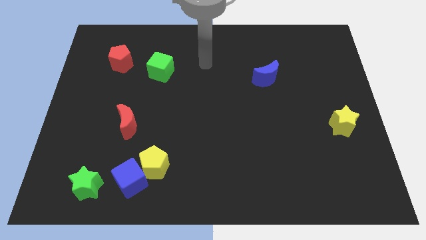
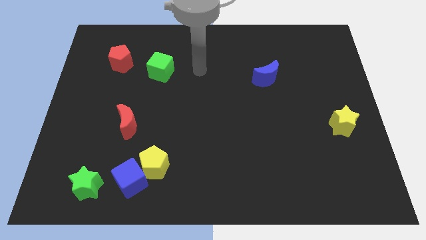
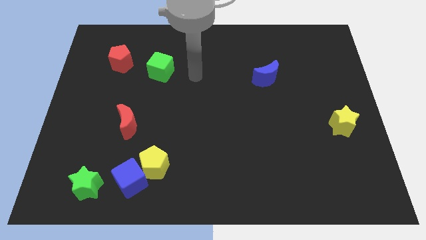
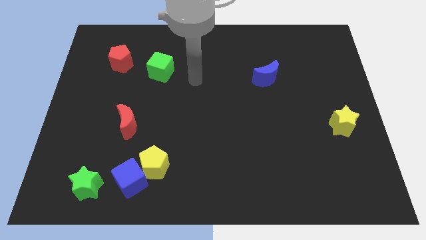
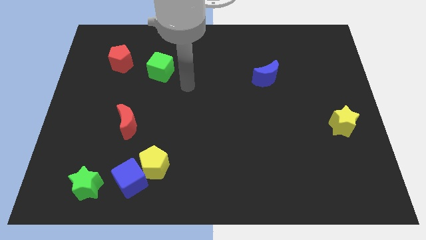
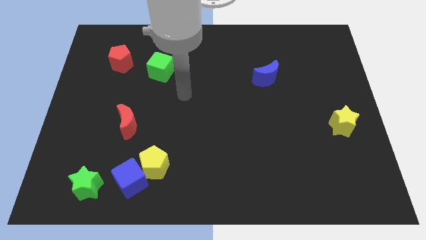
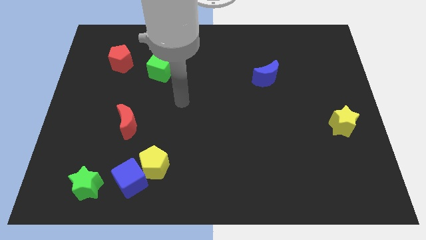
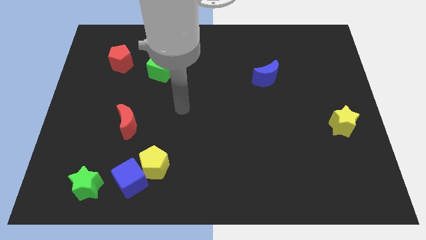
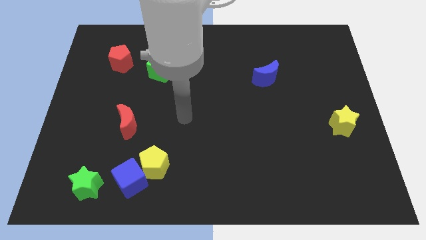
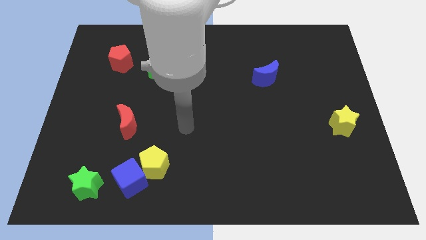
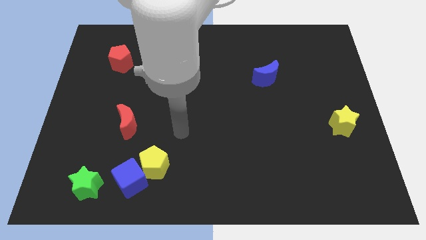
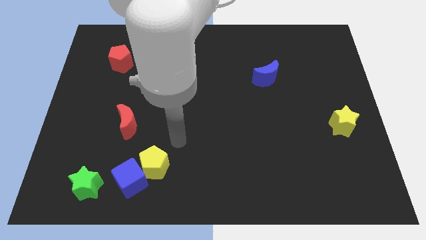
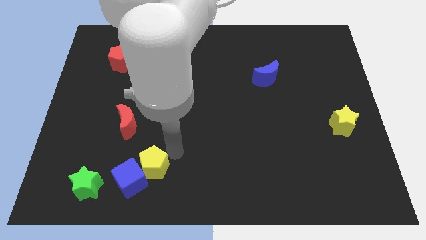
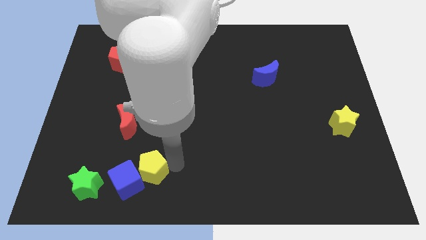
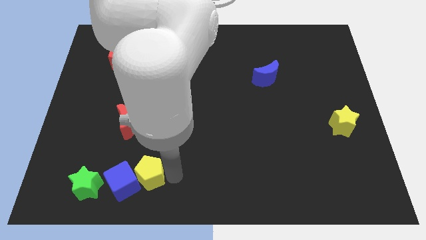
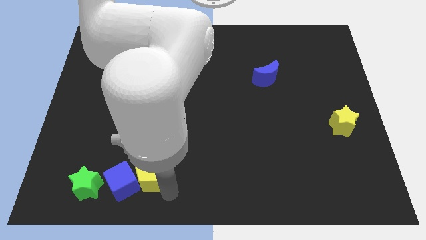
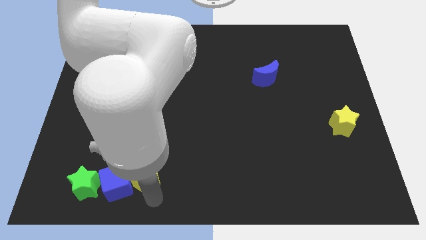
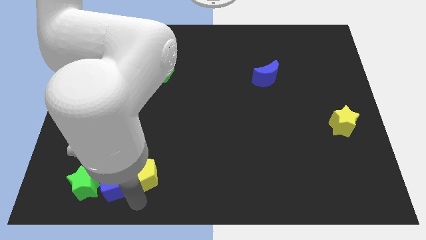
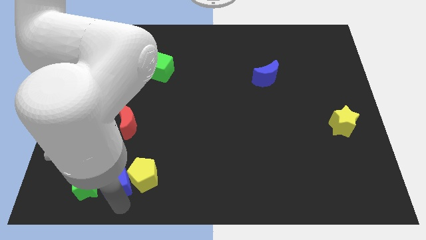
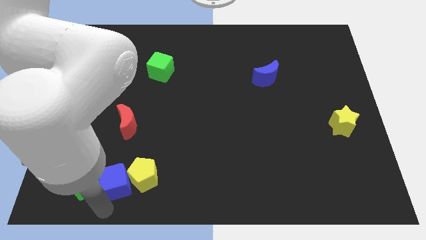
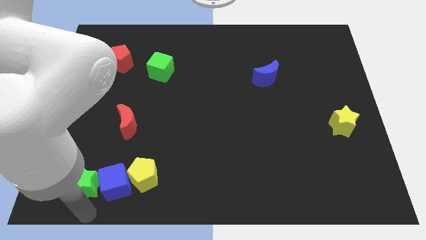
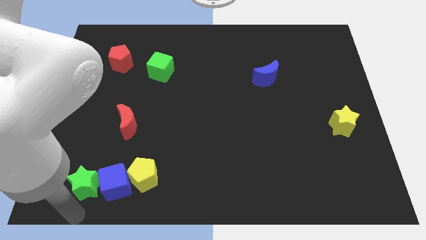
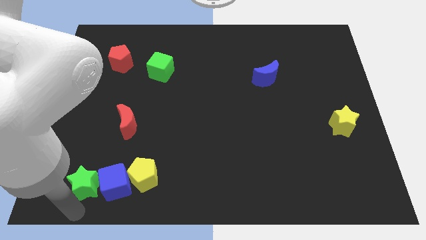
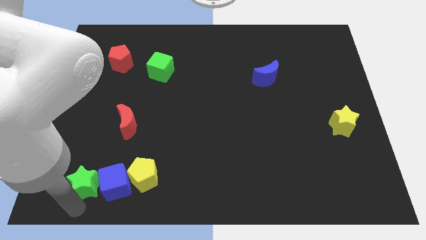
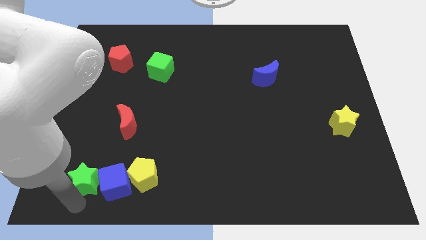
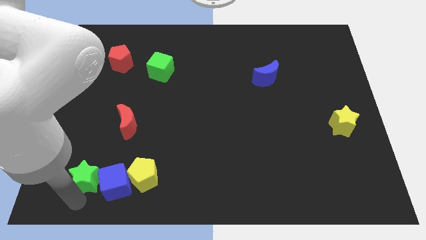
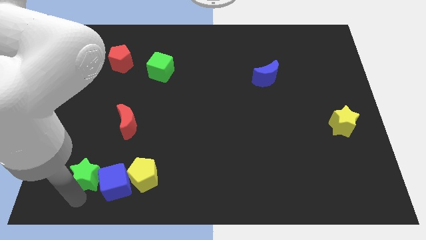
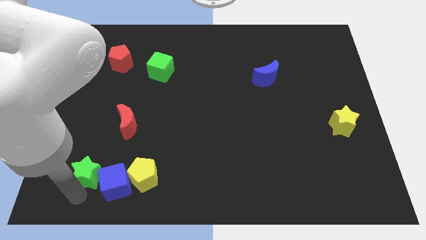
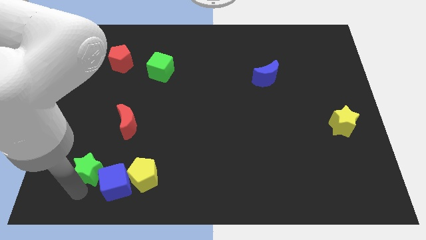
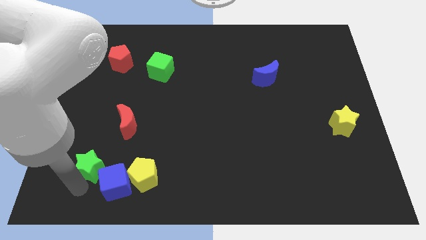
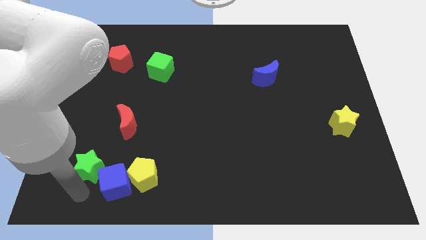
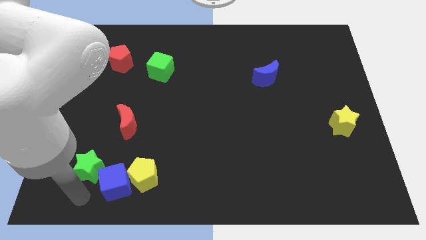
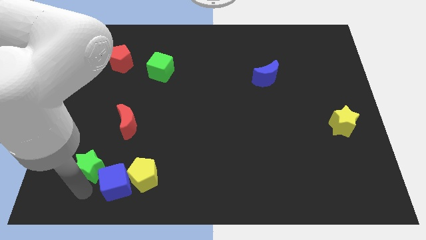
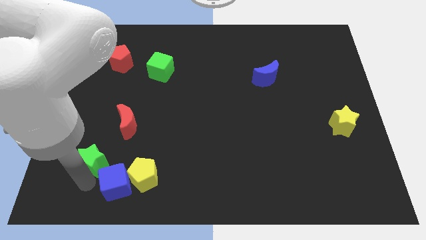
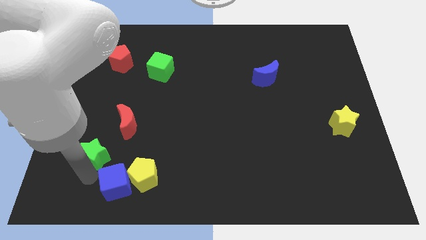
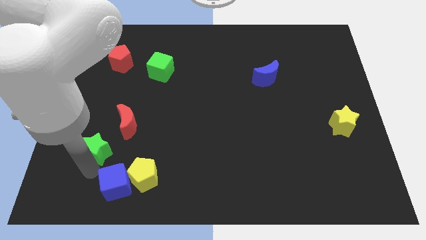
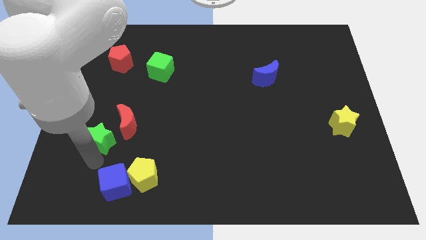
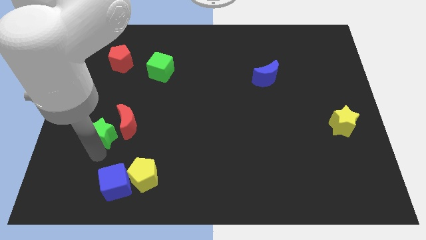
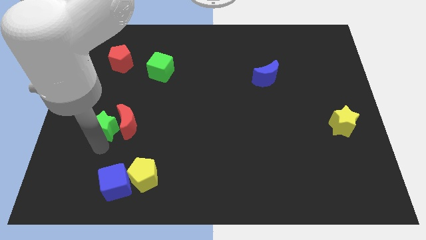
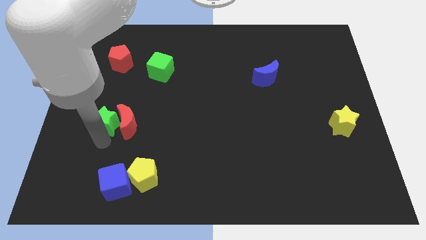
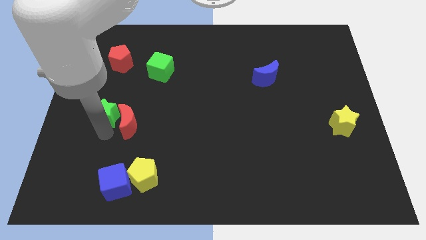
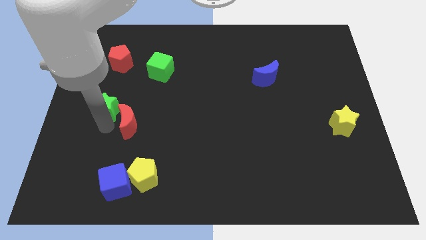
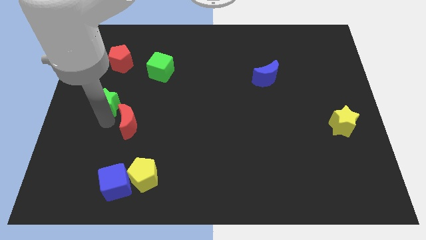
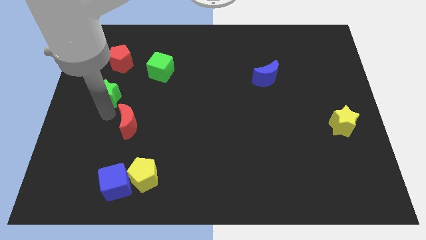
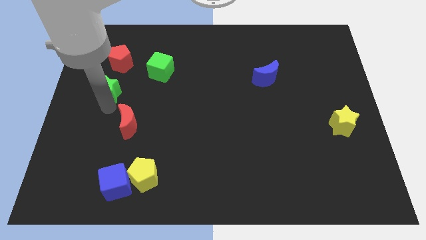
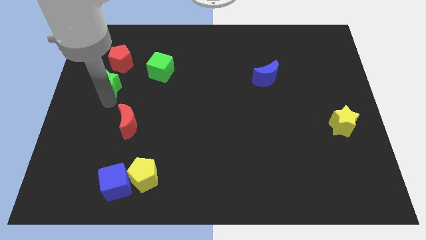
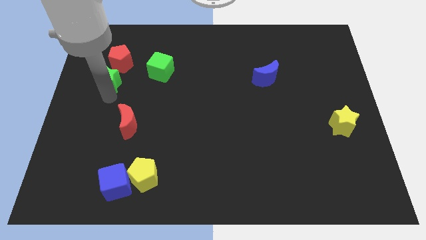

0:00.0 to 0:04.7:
slide the green star left of the green cube

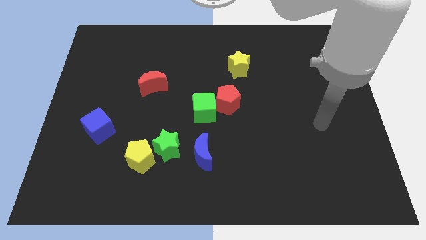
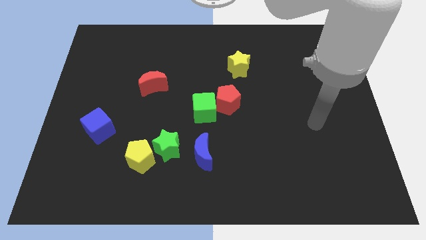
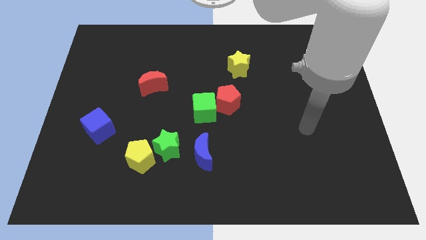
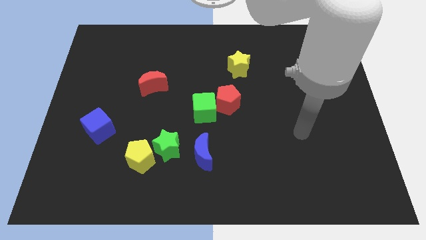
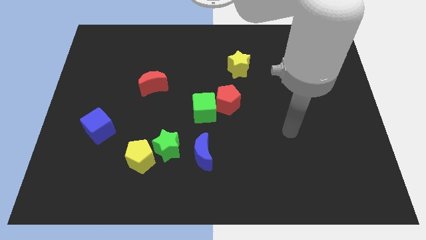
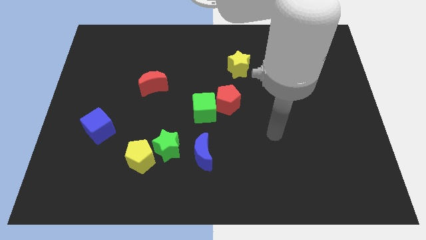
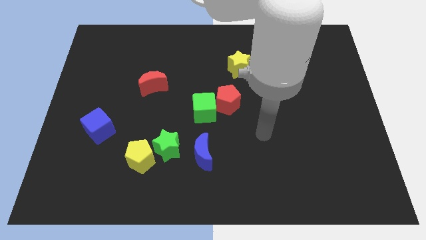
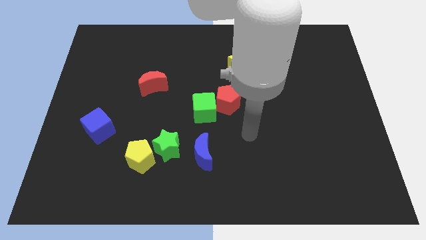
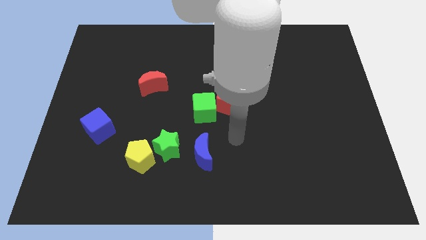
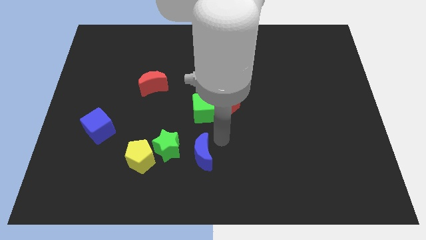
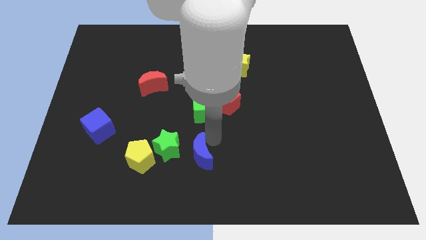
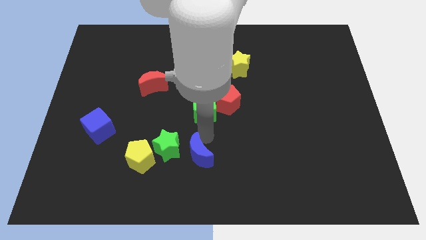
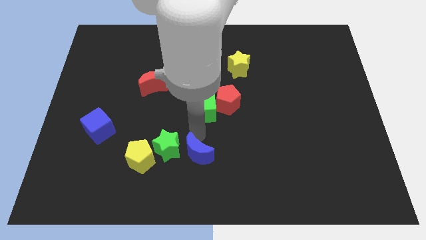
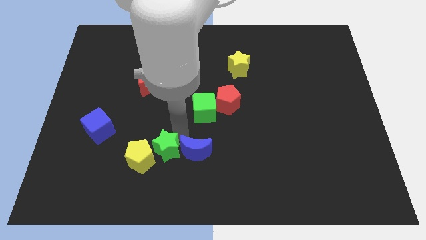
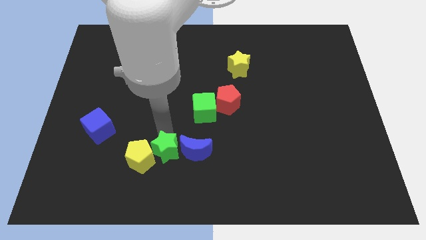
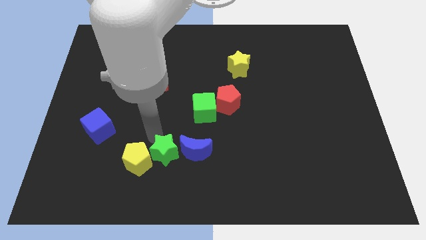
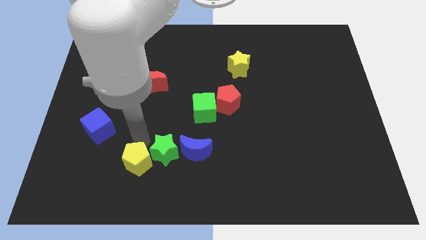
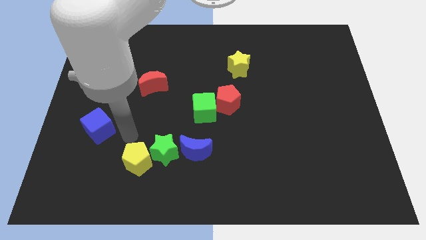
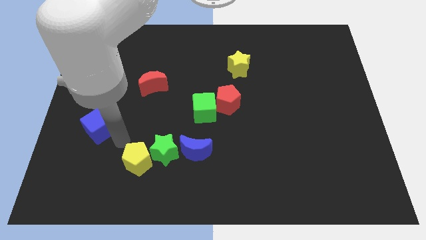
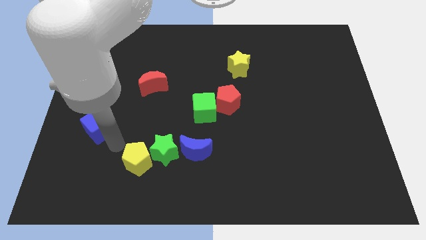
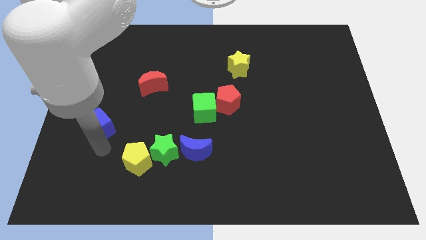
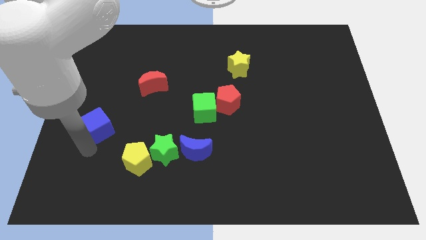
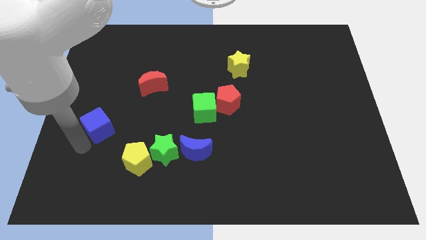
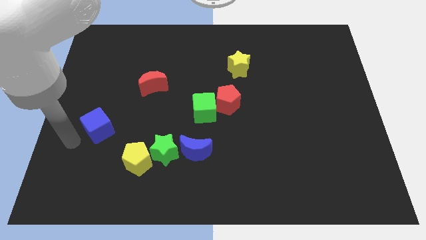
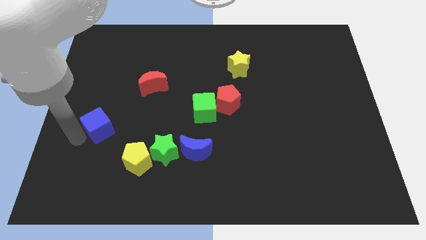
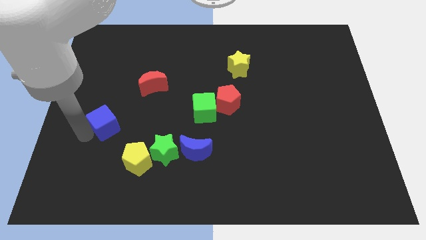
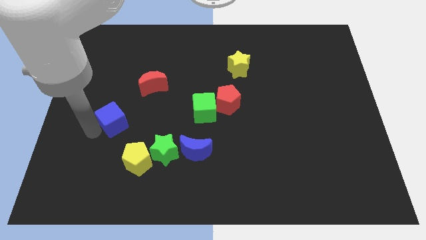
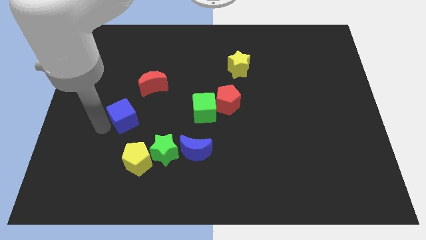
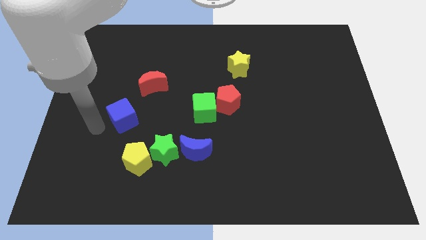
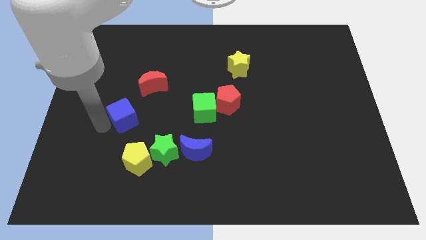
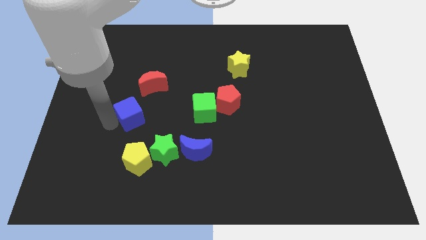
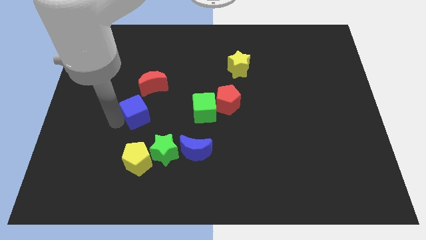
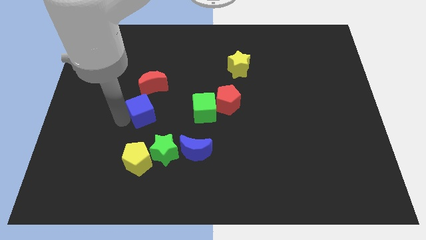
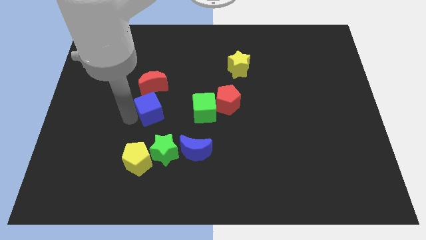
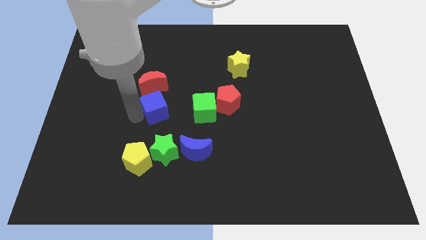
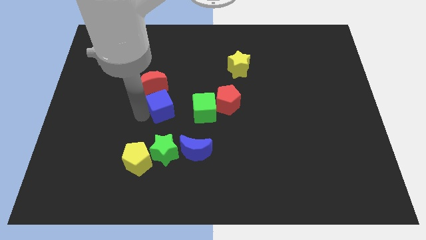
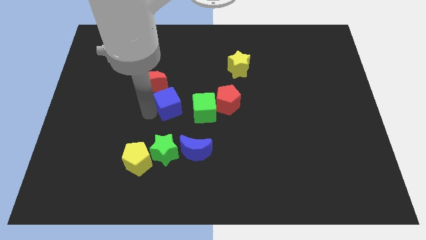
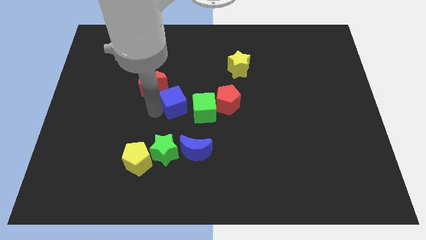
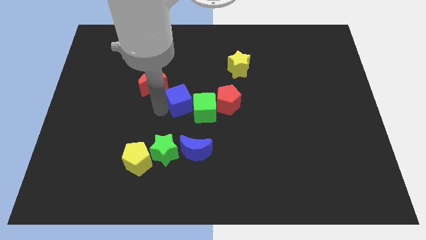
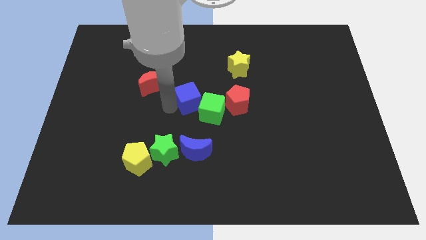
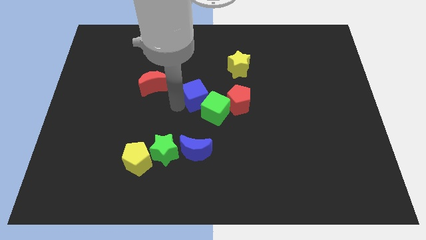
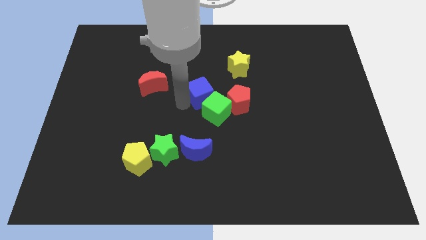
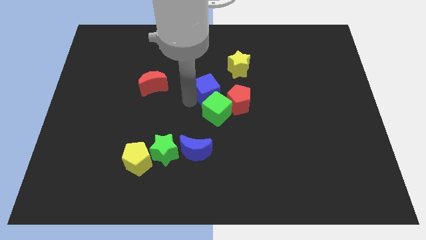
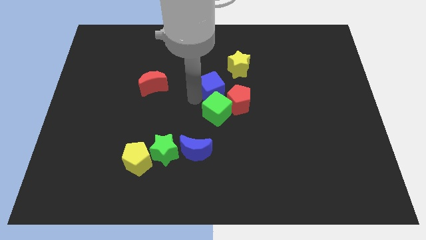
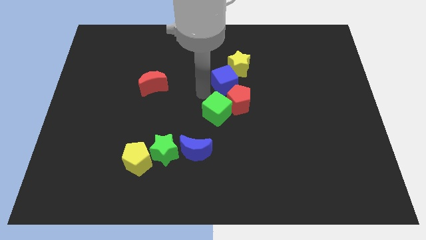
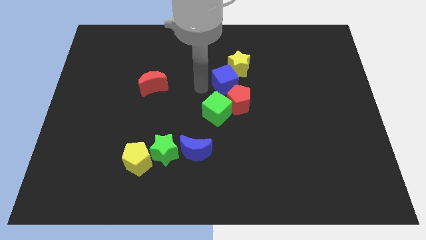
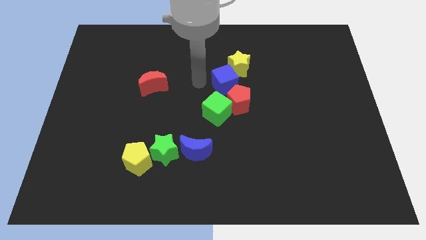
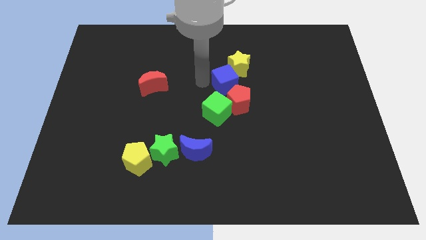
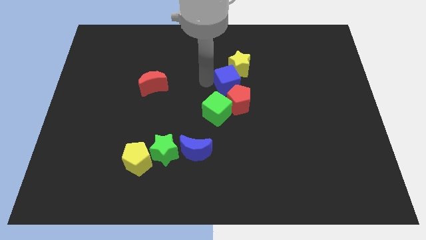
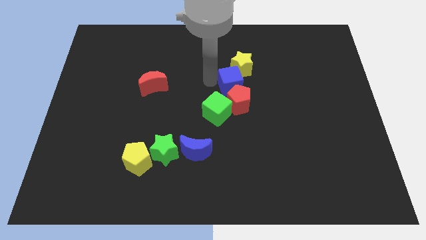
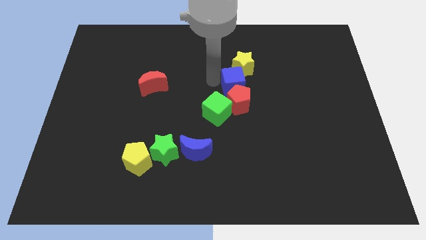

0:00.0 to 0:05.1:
slide the blue cube to the top right of the red pentagon
